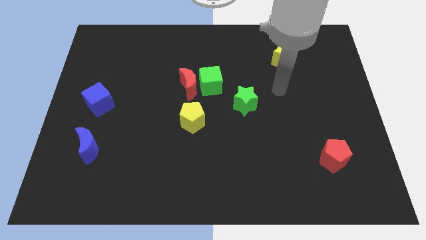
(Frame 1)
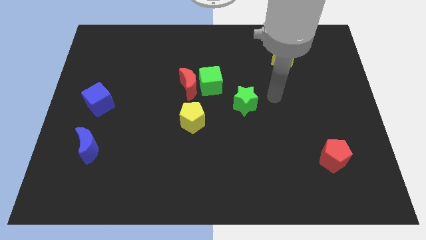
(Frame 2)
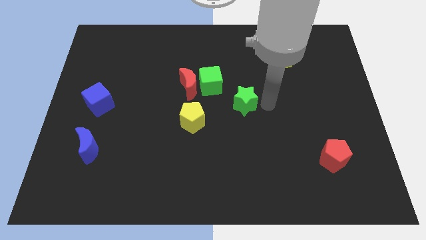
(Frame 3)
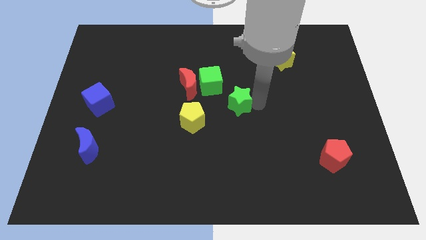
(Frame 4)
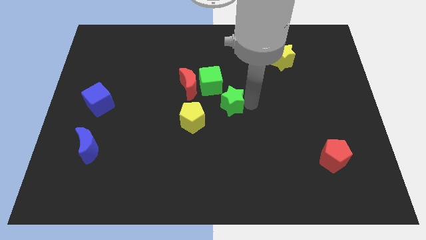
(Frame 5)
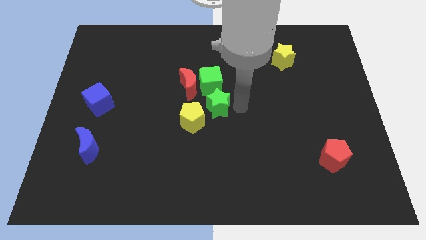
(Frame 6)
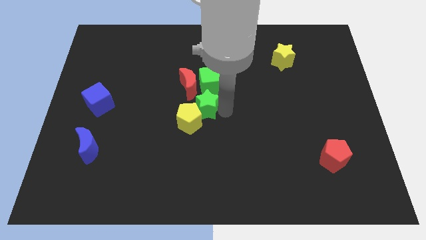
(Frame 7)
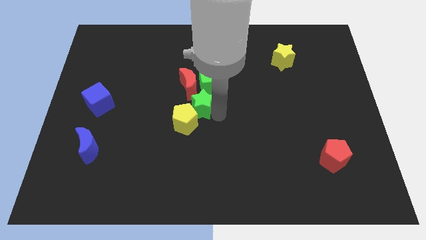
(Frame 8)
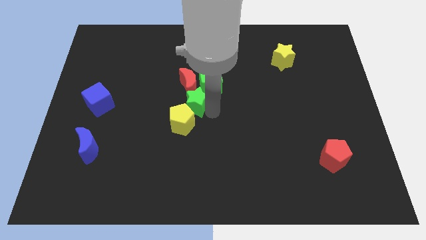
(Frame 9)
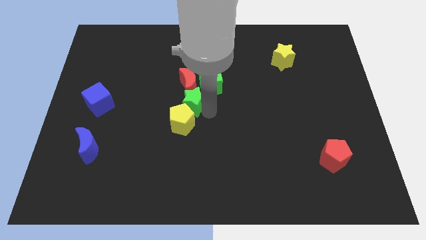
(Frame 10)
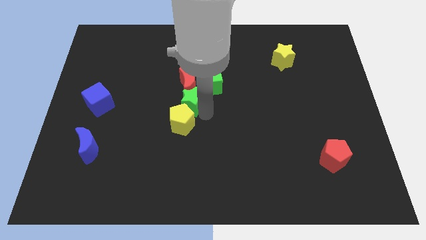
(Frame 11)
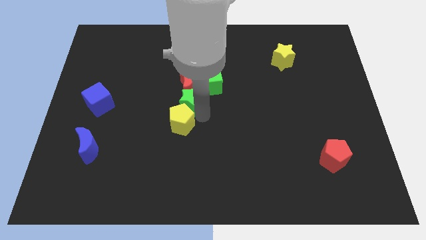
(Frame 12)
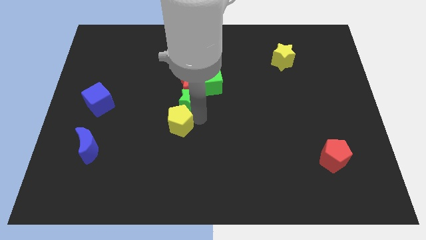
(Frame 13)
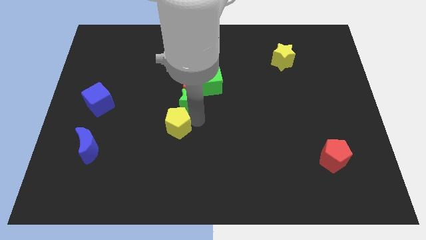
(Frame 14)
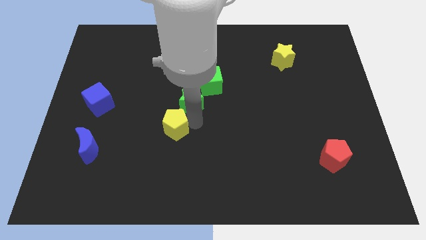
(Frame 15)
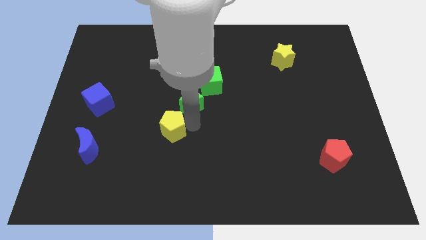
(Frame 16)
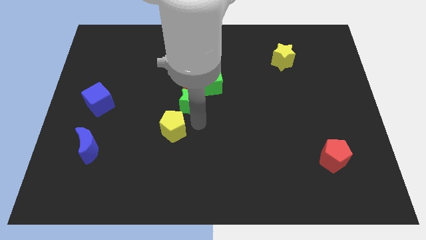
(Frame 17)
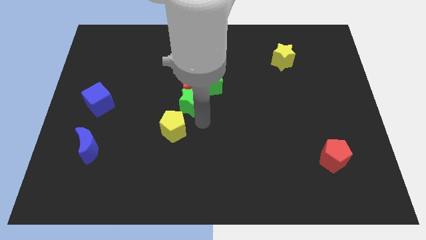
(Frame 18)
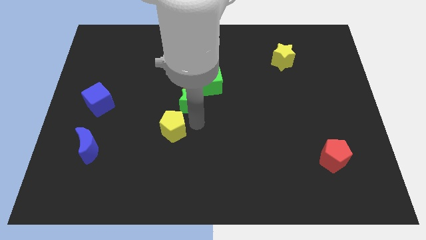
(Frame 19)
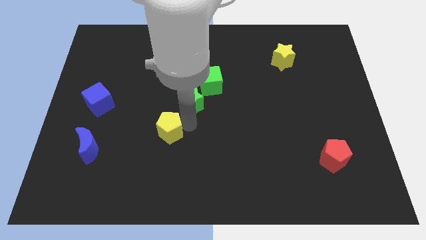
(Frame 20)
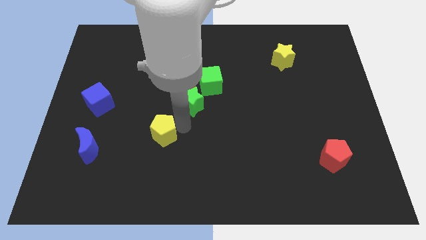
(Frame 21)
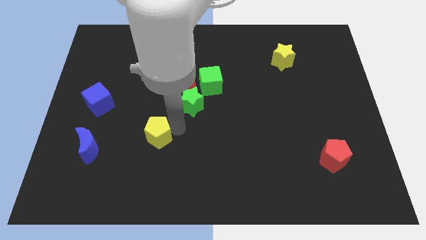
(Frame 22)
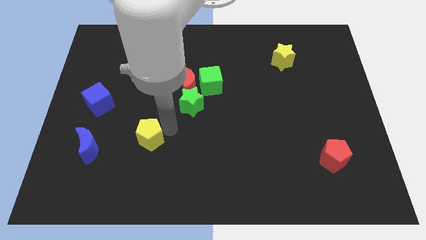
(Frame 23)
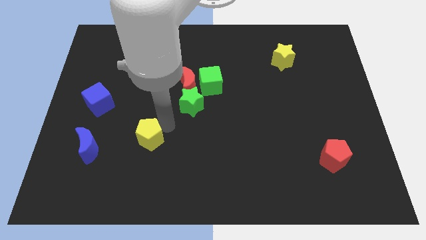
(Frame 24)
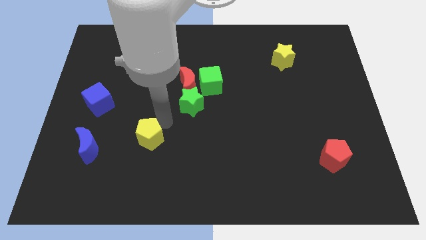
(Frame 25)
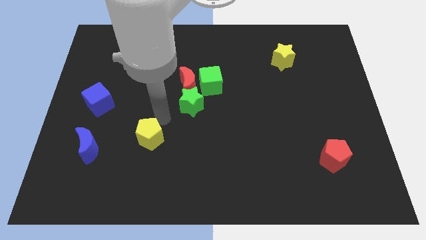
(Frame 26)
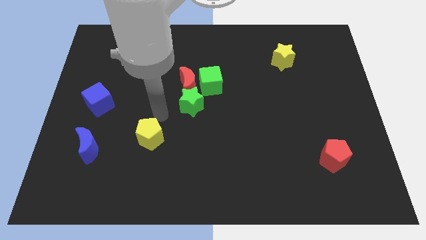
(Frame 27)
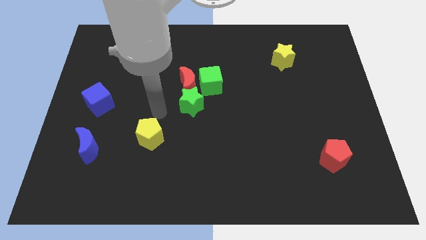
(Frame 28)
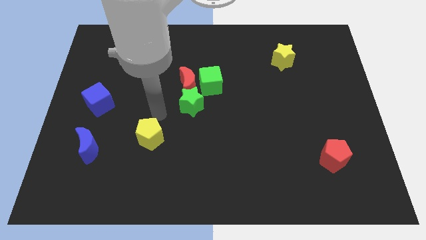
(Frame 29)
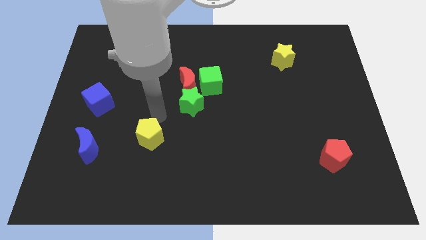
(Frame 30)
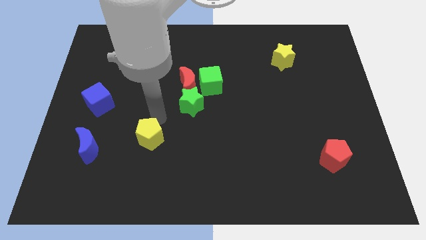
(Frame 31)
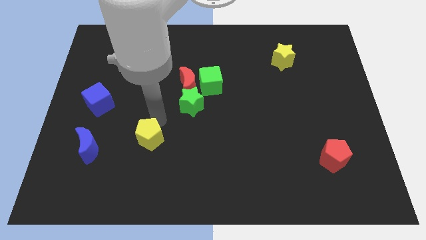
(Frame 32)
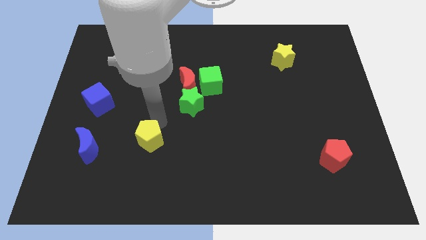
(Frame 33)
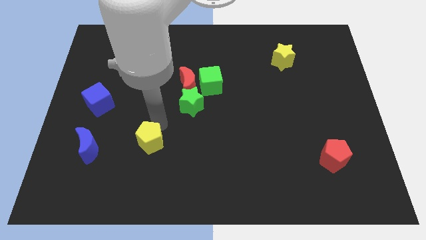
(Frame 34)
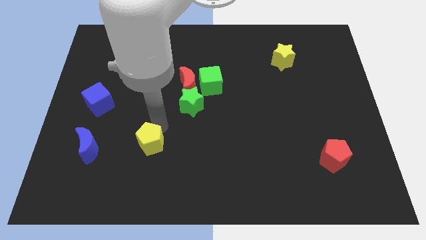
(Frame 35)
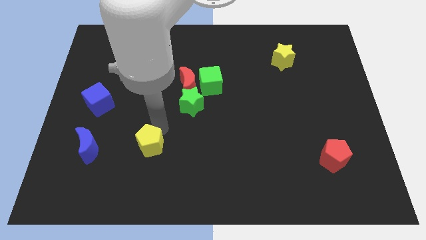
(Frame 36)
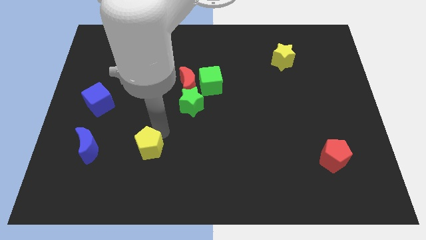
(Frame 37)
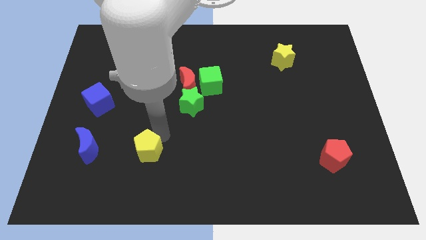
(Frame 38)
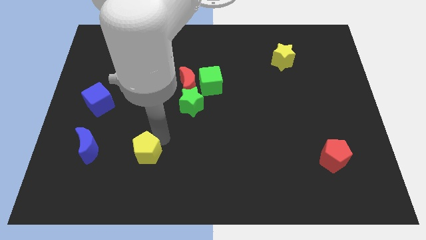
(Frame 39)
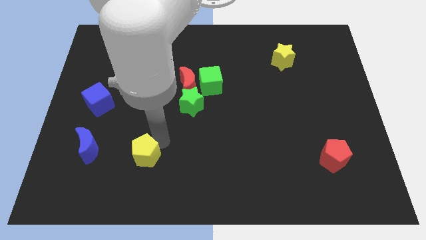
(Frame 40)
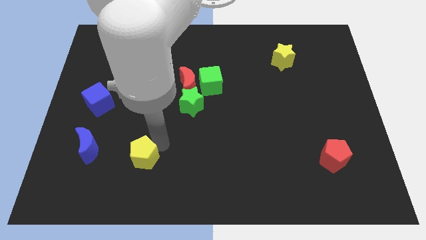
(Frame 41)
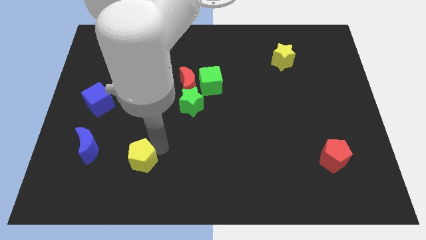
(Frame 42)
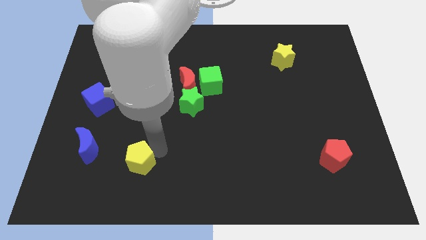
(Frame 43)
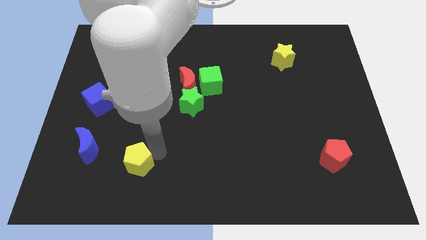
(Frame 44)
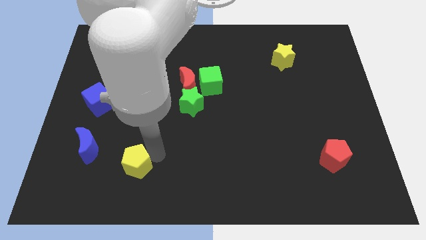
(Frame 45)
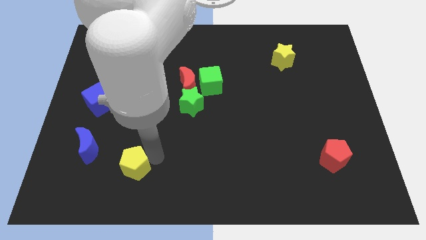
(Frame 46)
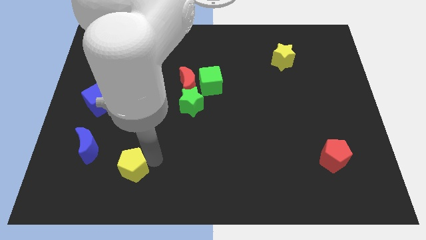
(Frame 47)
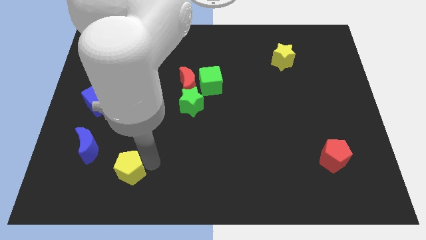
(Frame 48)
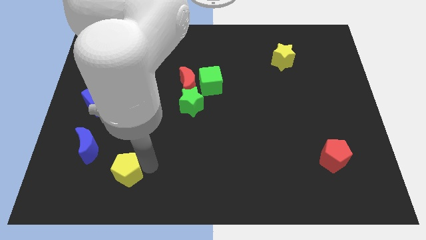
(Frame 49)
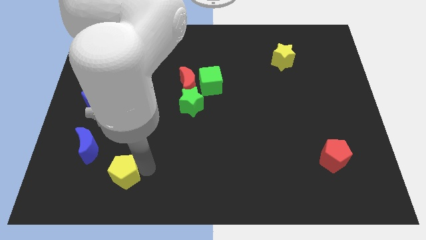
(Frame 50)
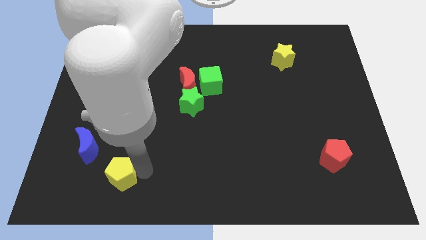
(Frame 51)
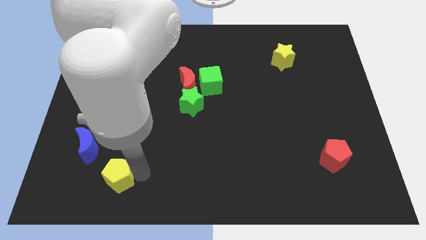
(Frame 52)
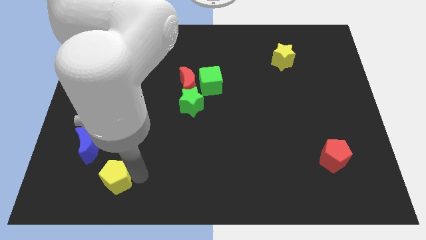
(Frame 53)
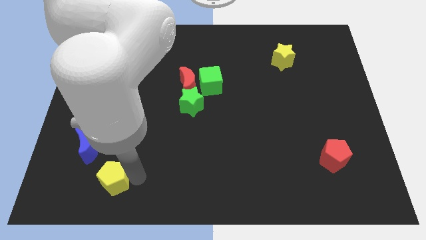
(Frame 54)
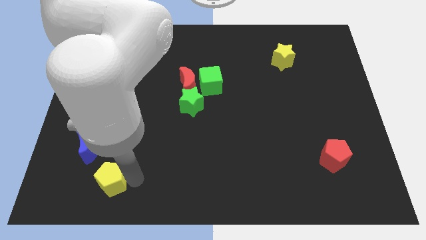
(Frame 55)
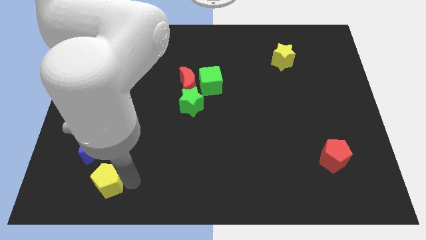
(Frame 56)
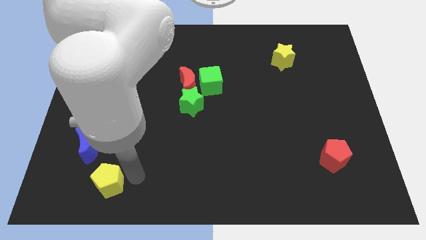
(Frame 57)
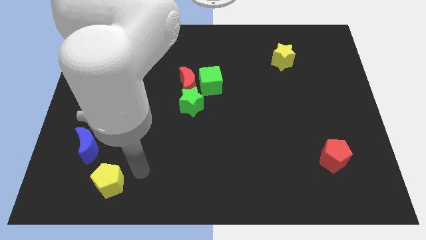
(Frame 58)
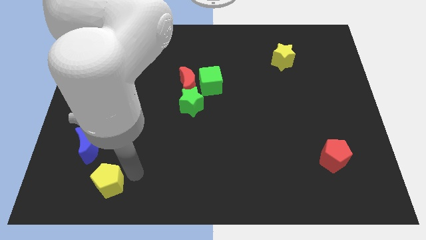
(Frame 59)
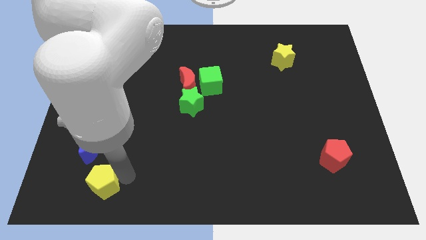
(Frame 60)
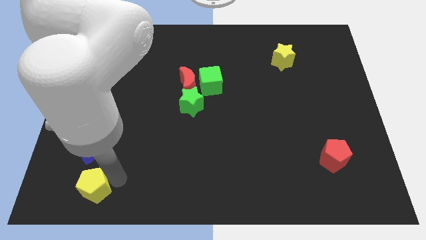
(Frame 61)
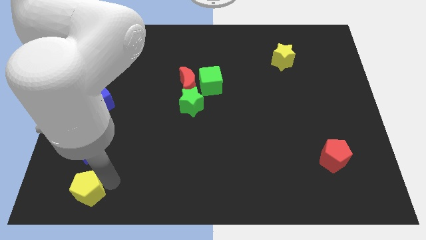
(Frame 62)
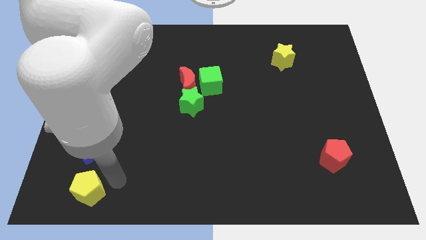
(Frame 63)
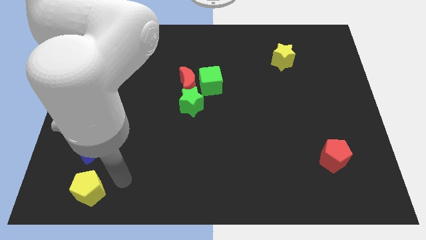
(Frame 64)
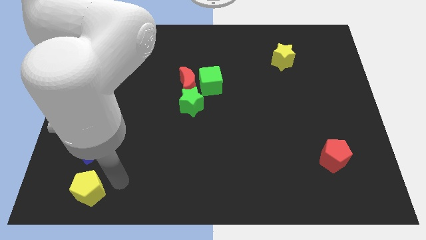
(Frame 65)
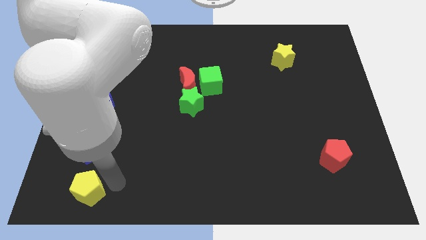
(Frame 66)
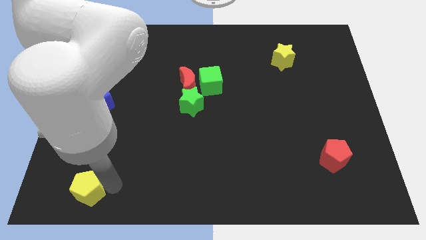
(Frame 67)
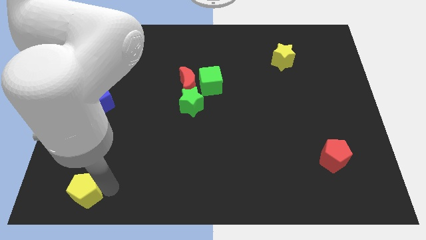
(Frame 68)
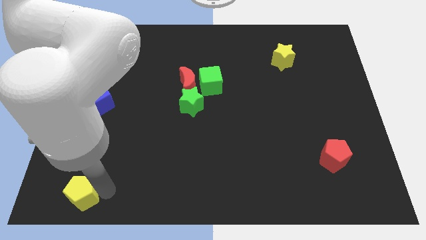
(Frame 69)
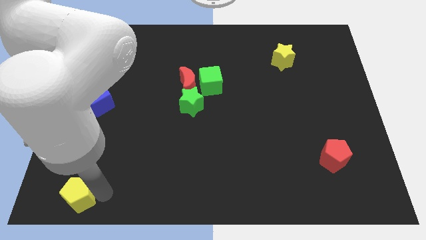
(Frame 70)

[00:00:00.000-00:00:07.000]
move the yellow pentagon to the lower left corner

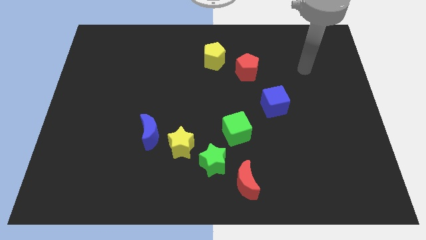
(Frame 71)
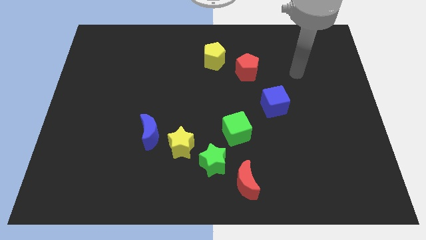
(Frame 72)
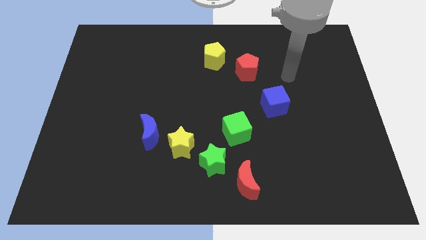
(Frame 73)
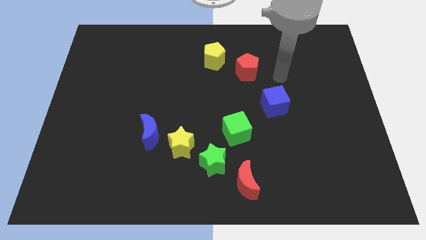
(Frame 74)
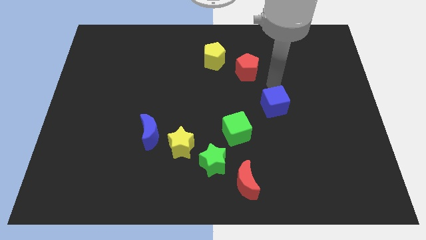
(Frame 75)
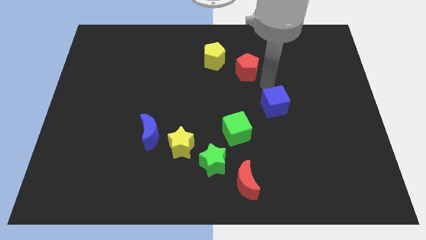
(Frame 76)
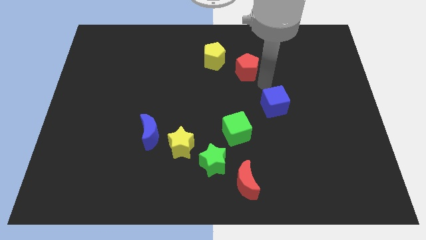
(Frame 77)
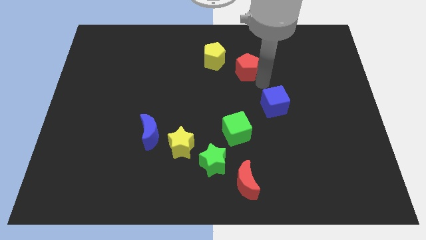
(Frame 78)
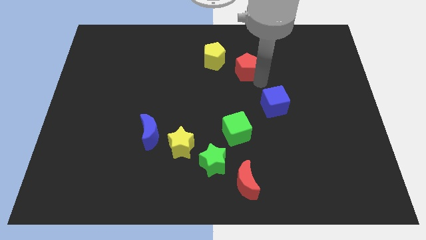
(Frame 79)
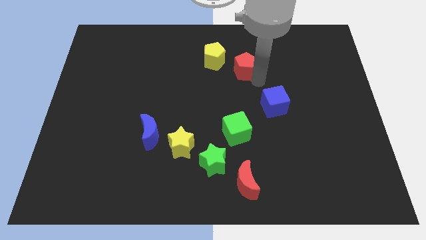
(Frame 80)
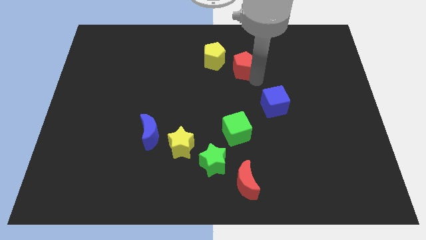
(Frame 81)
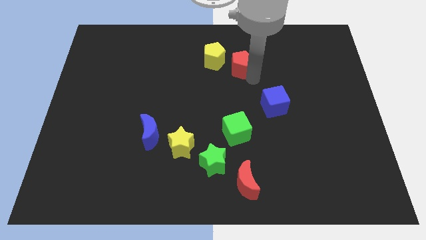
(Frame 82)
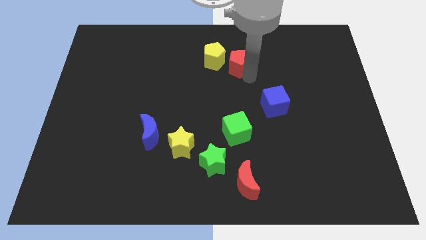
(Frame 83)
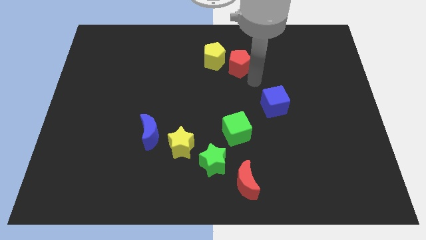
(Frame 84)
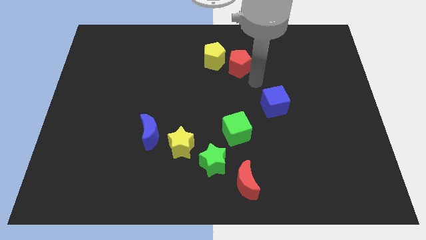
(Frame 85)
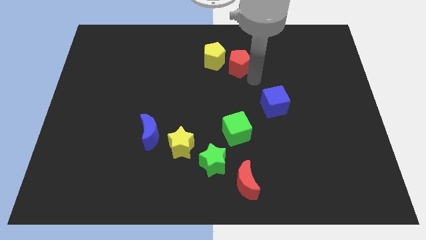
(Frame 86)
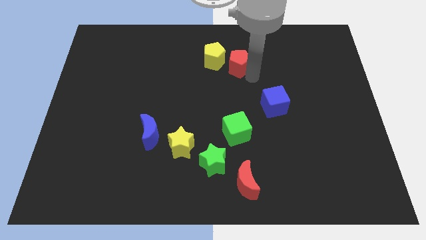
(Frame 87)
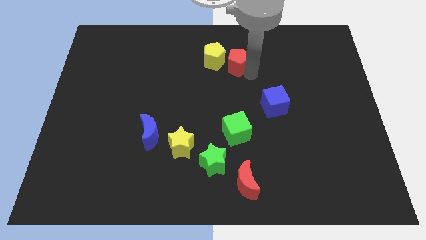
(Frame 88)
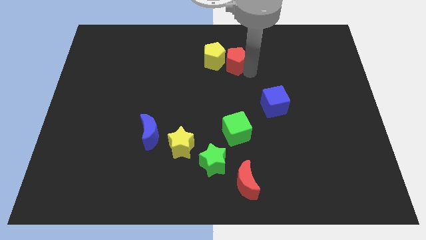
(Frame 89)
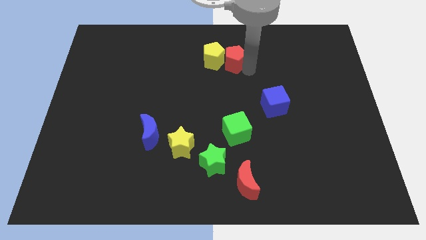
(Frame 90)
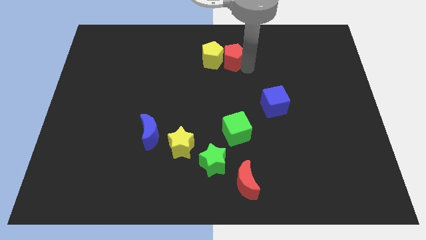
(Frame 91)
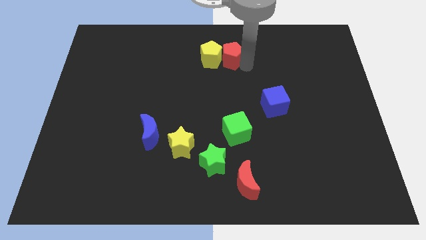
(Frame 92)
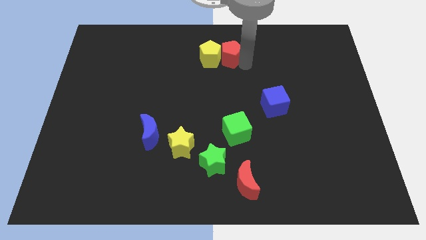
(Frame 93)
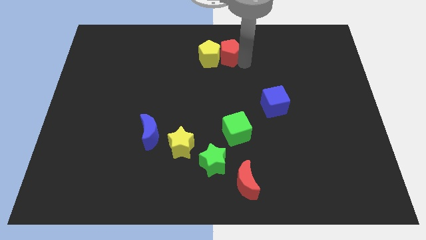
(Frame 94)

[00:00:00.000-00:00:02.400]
slide the red pentagon to the top side
